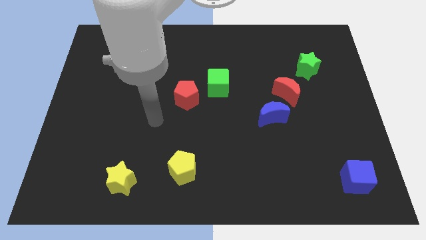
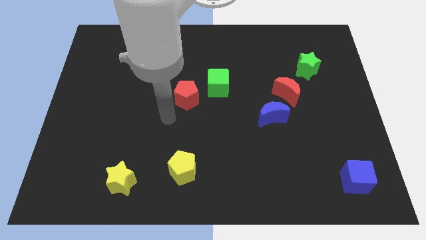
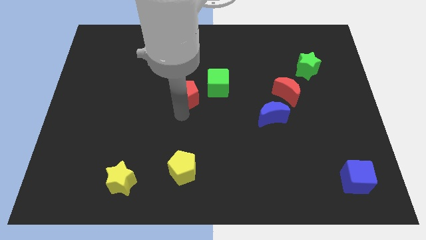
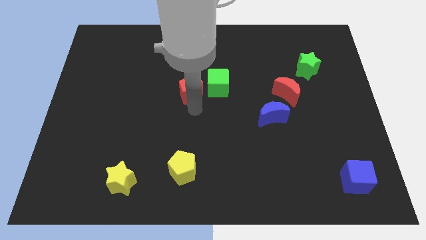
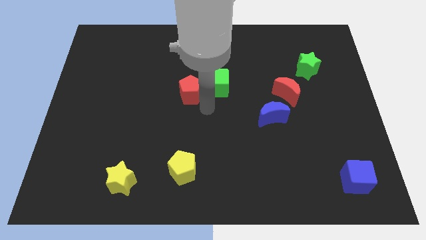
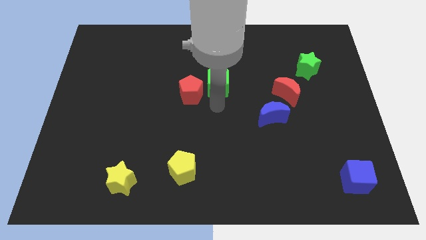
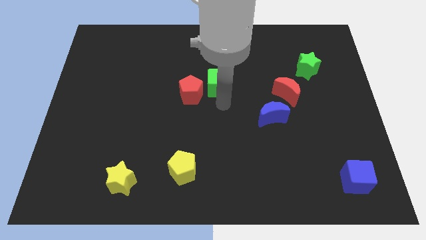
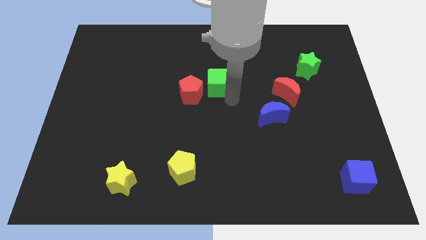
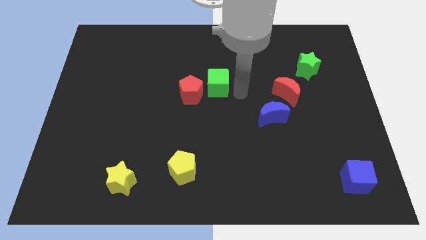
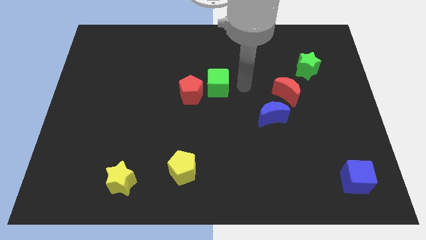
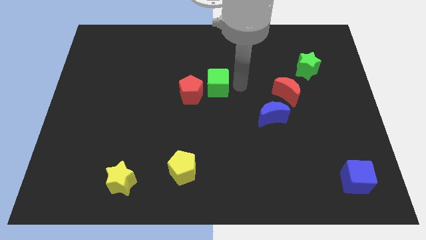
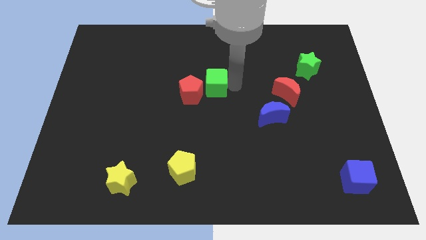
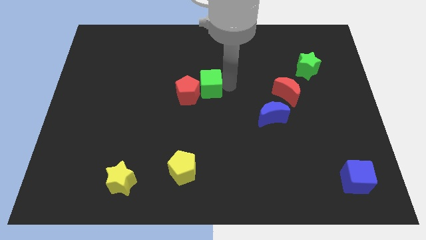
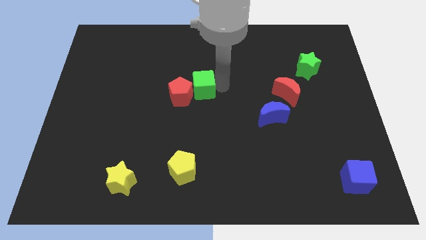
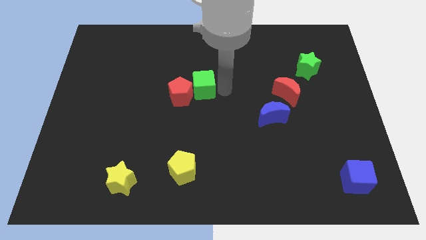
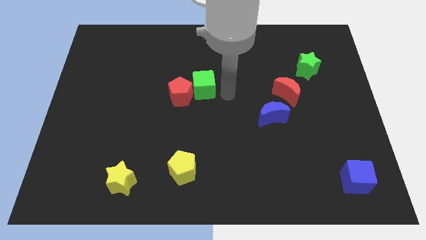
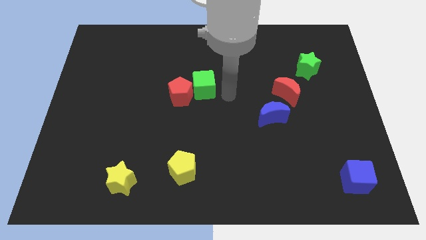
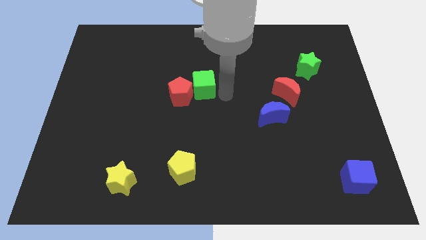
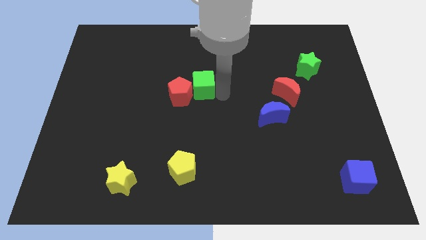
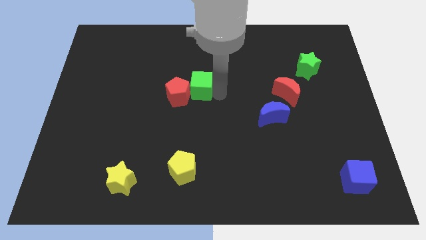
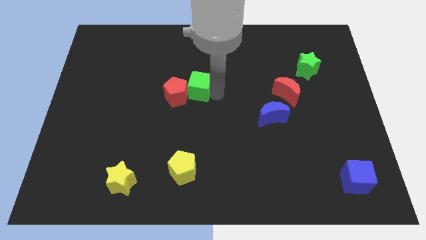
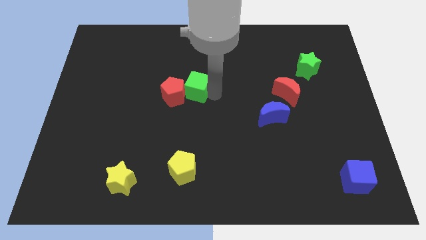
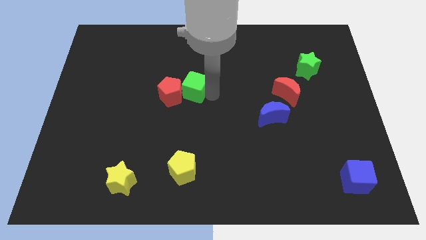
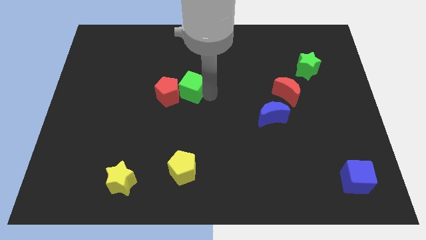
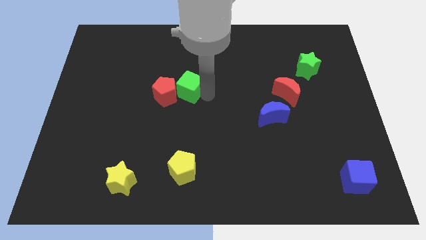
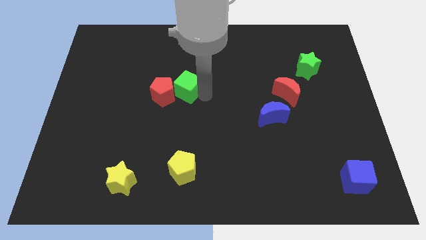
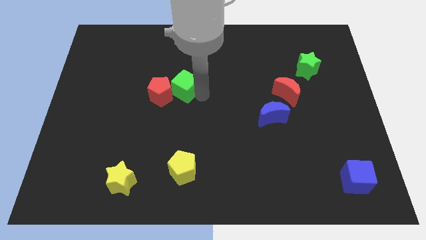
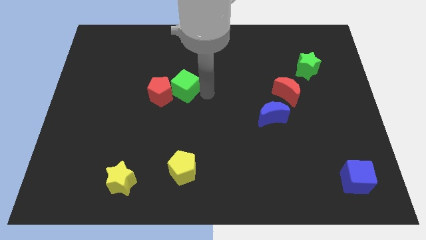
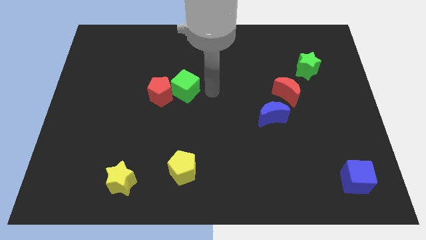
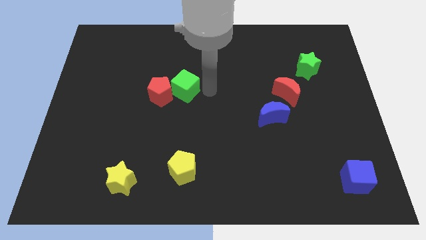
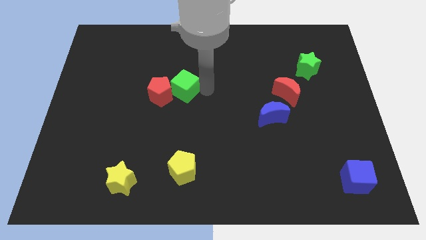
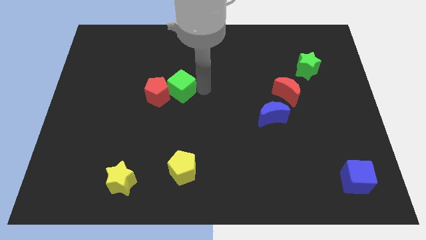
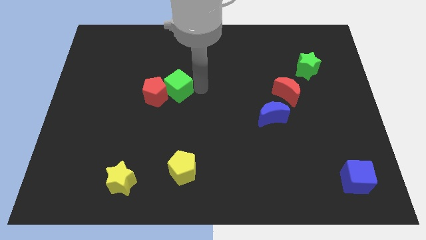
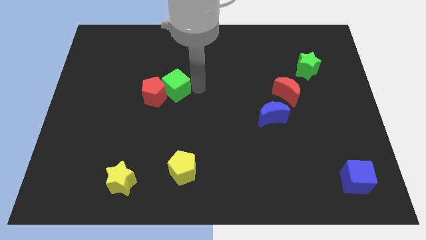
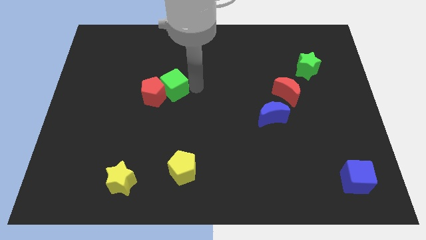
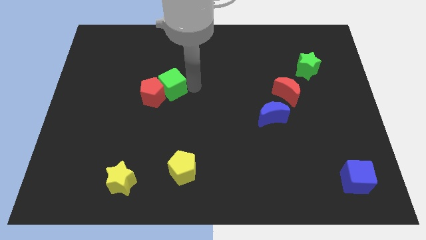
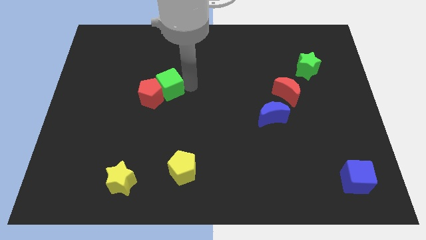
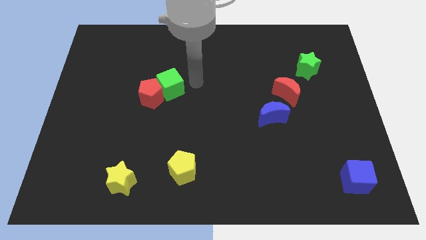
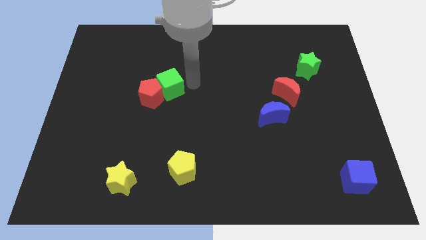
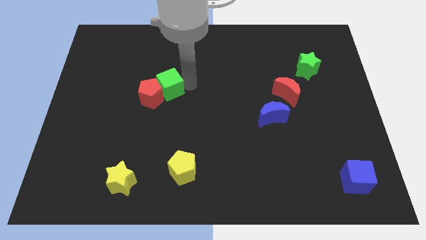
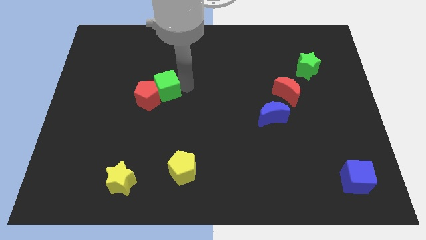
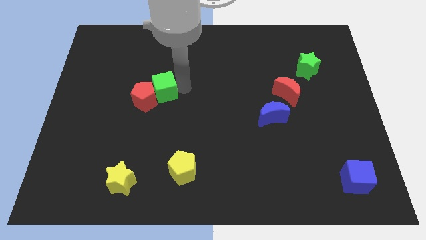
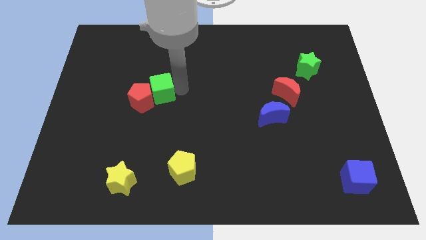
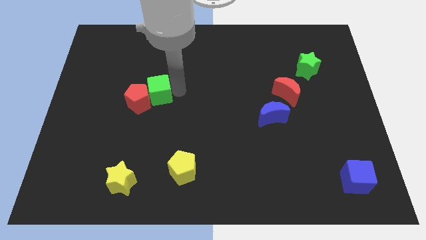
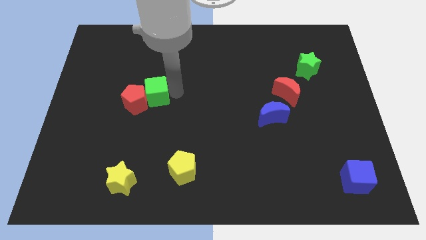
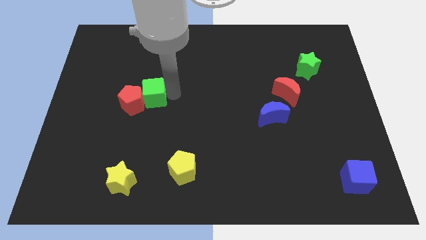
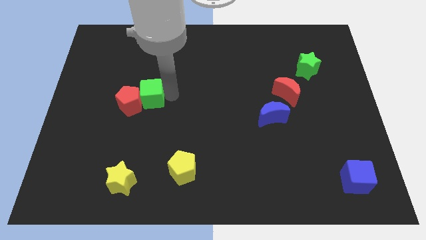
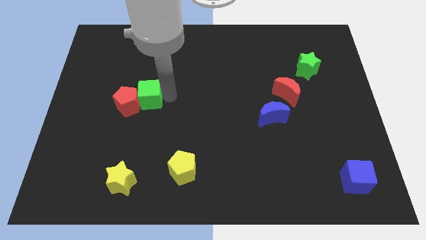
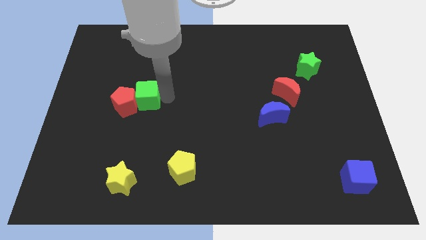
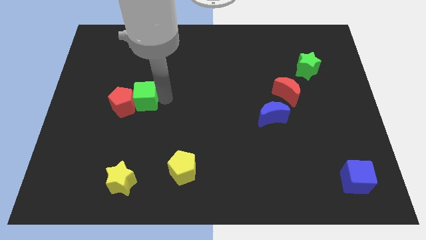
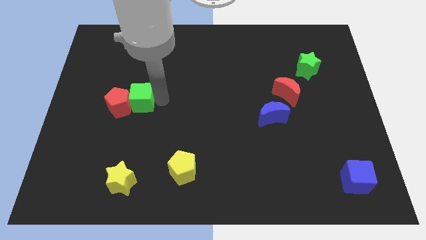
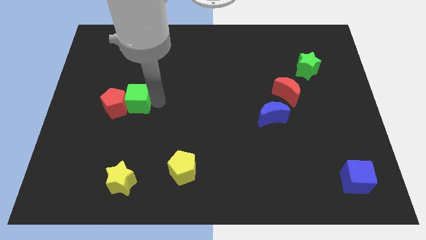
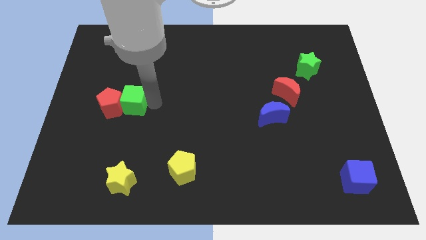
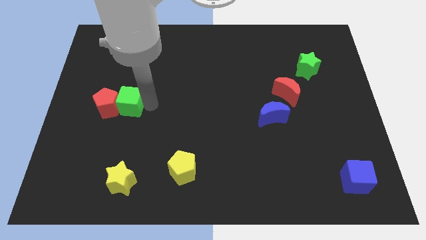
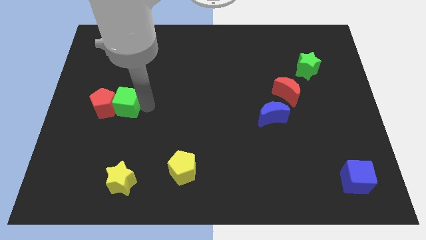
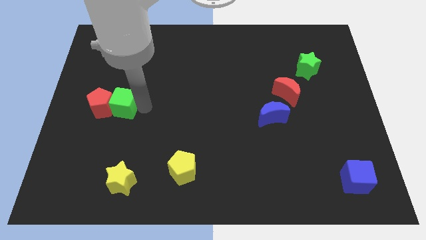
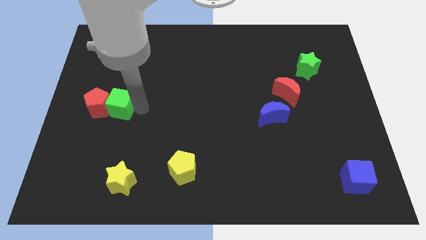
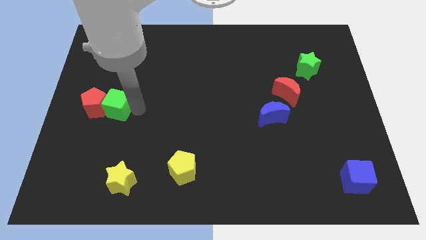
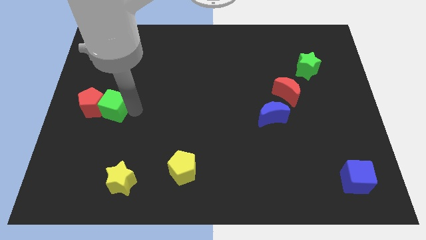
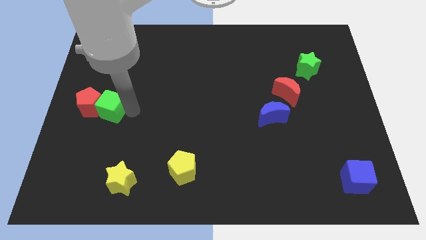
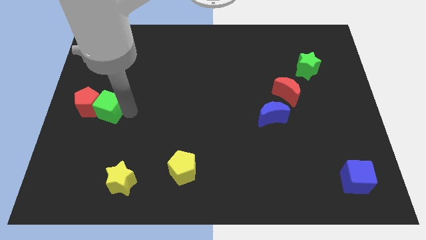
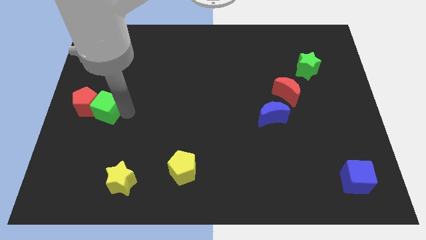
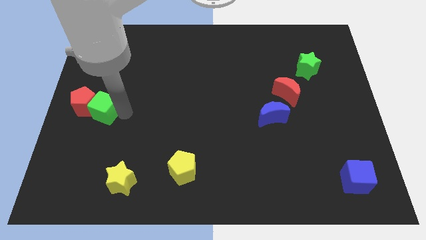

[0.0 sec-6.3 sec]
move the green cube to the left side

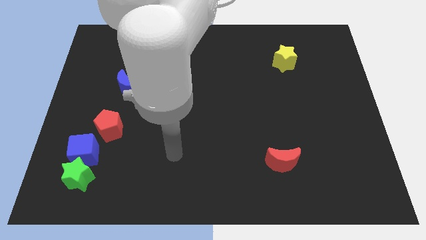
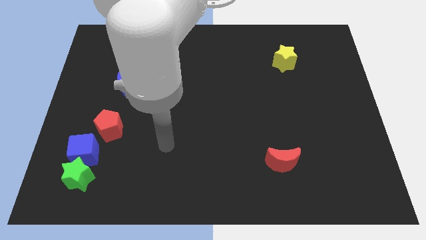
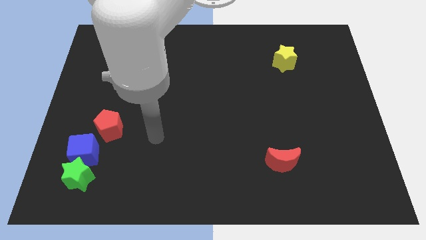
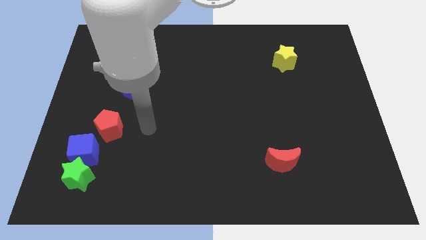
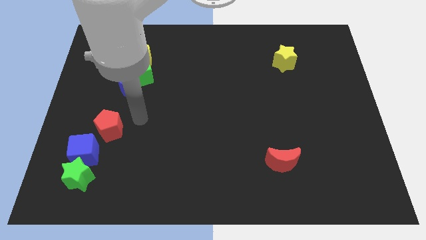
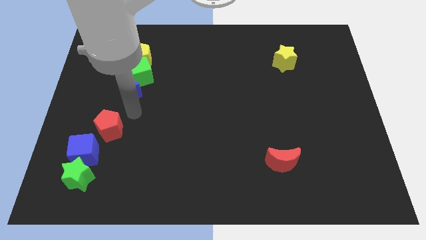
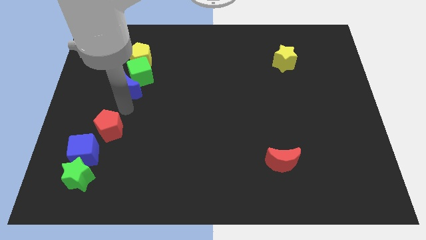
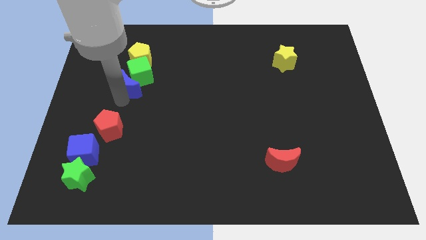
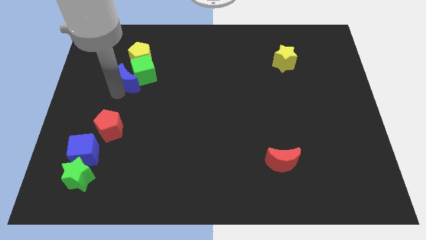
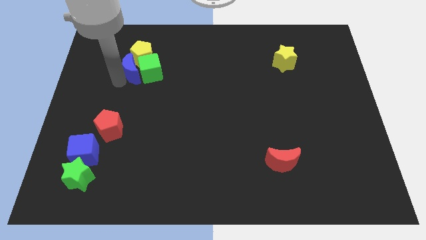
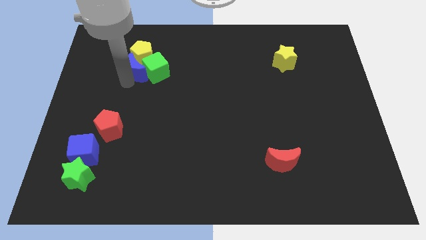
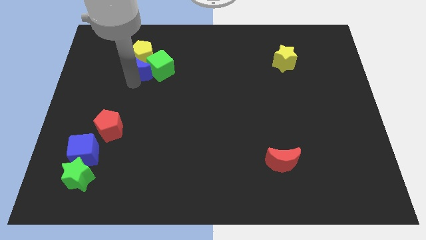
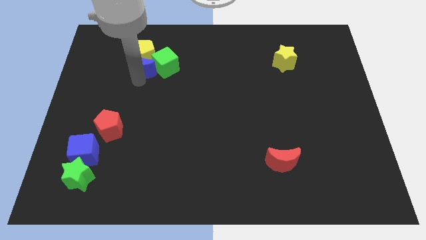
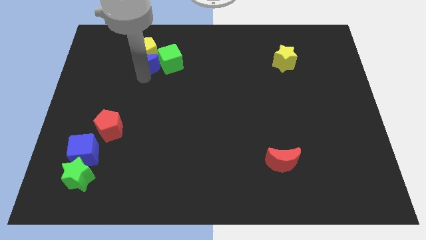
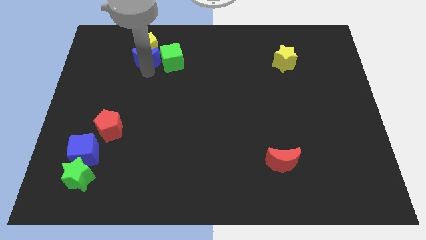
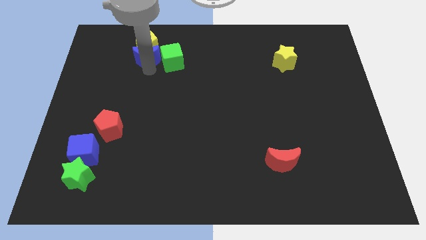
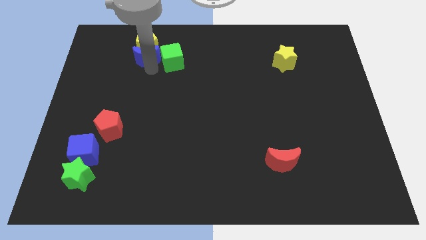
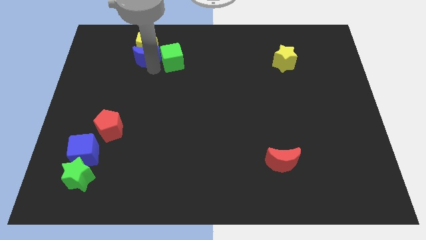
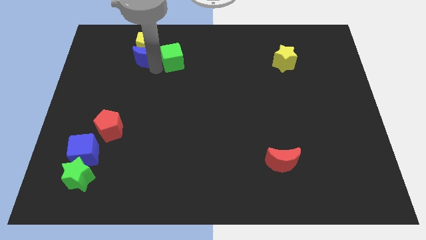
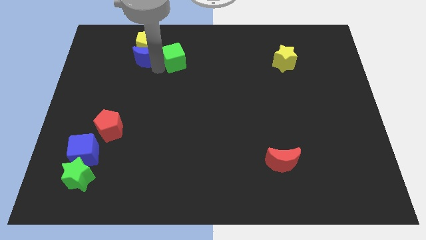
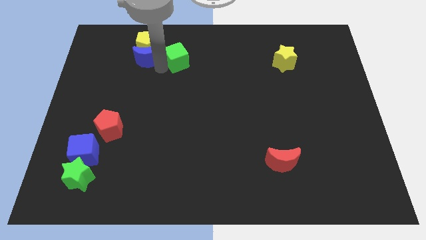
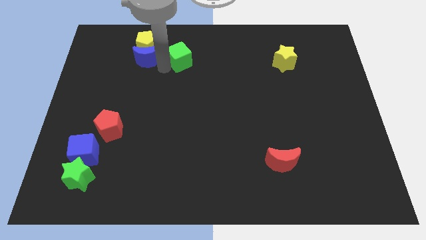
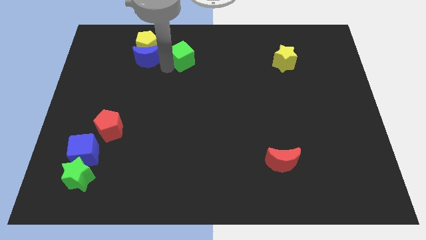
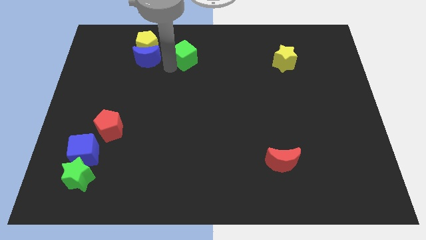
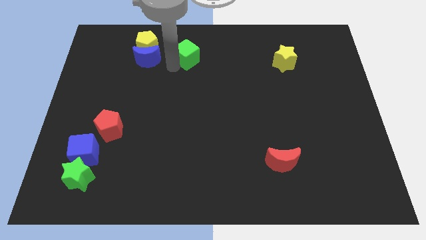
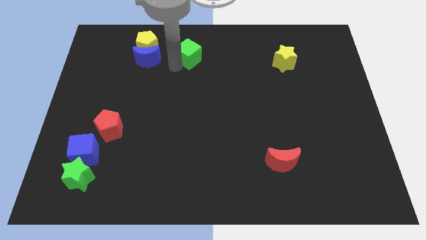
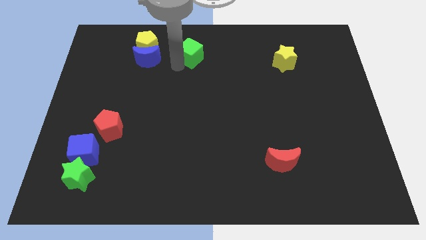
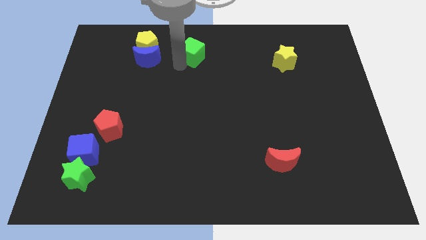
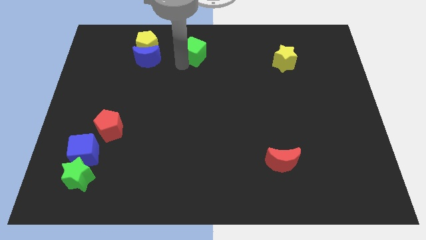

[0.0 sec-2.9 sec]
move the green cube to the towards your base
